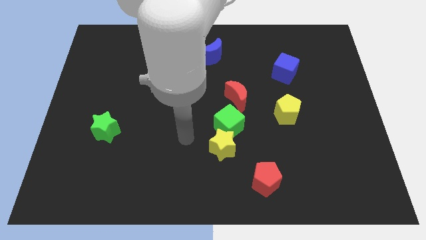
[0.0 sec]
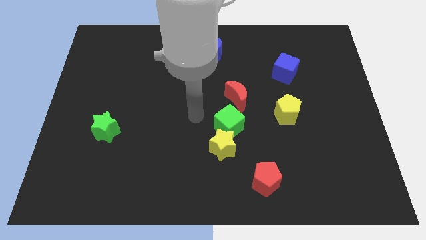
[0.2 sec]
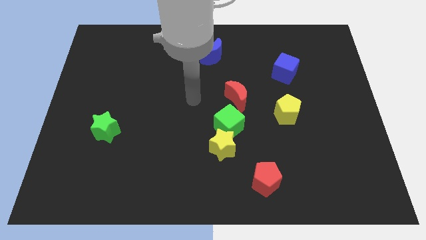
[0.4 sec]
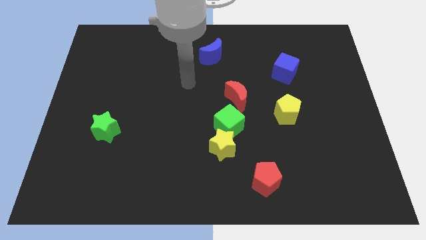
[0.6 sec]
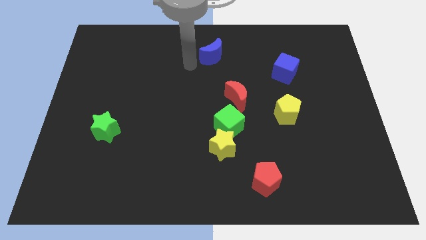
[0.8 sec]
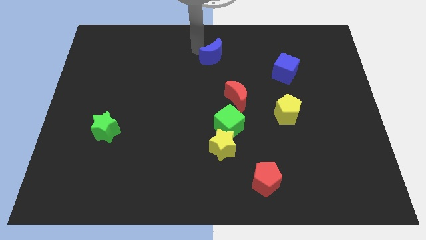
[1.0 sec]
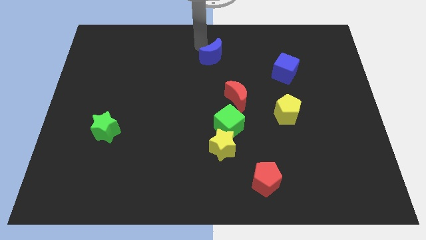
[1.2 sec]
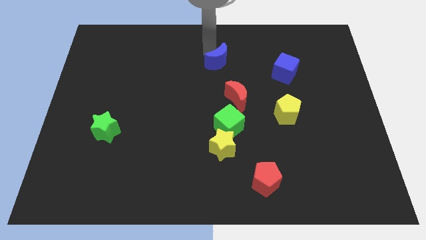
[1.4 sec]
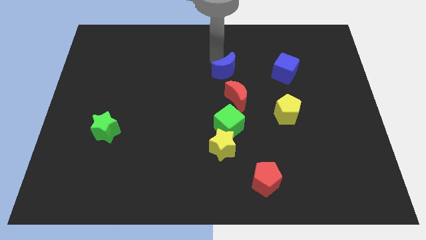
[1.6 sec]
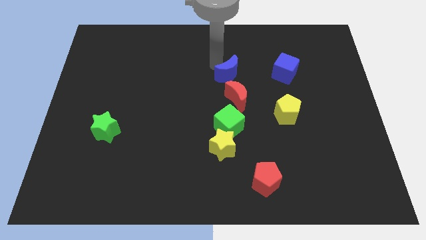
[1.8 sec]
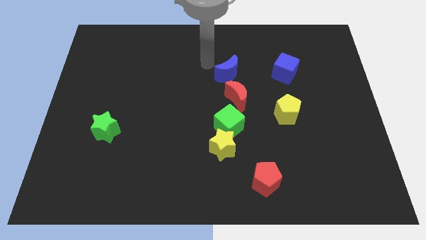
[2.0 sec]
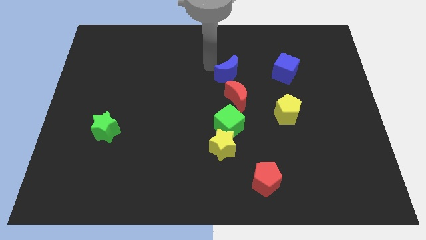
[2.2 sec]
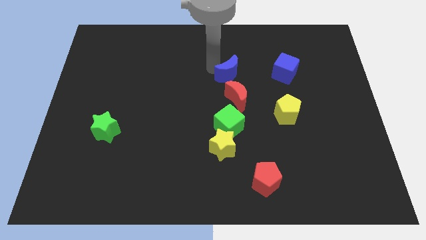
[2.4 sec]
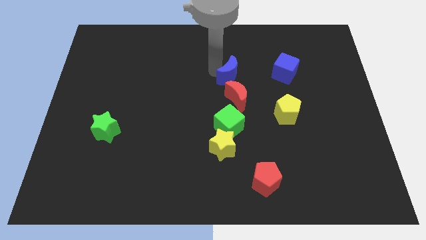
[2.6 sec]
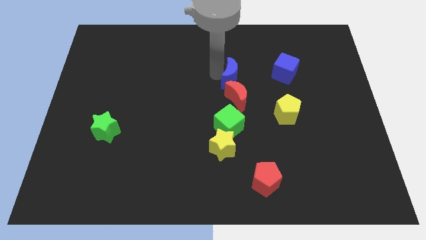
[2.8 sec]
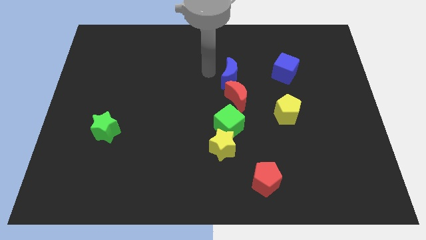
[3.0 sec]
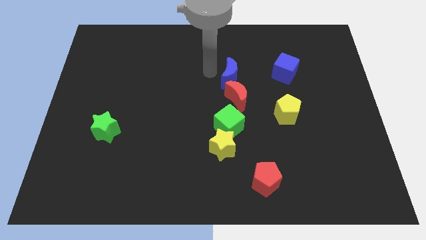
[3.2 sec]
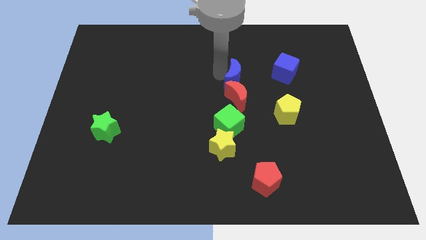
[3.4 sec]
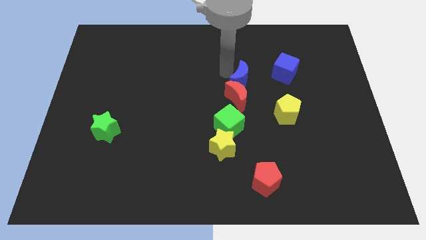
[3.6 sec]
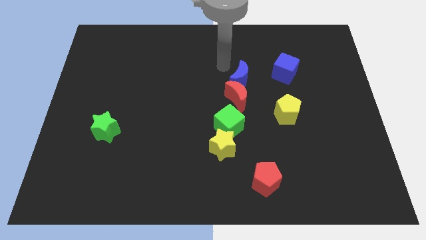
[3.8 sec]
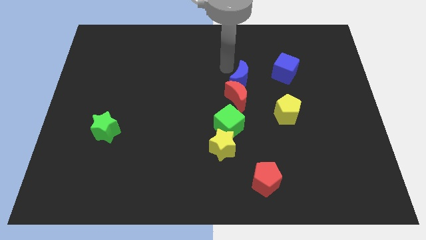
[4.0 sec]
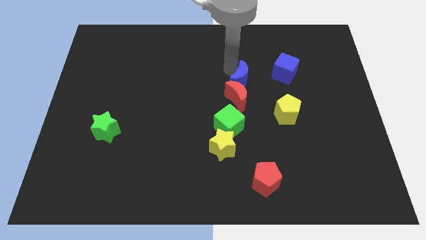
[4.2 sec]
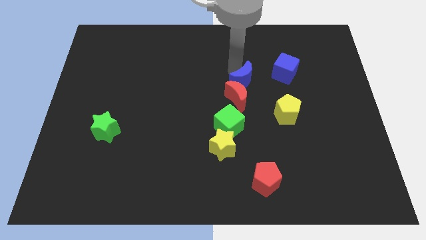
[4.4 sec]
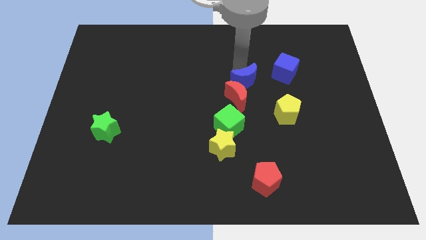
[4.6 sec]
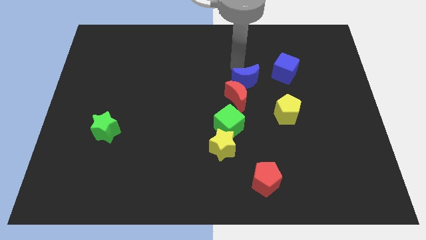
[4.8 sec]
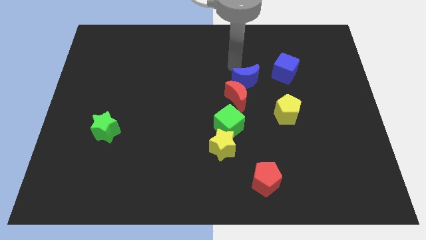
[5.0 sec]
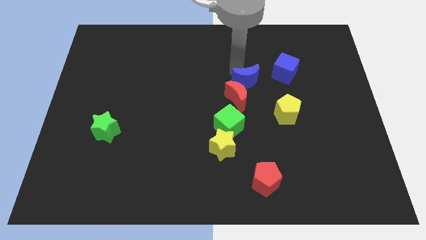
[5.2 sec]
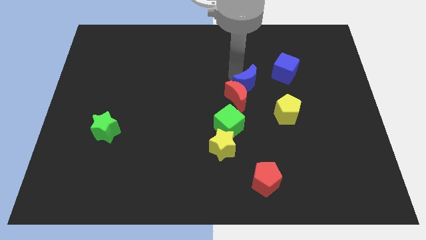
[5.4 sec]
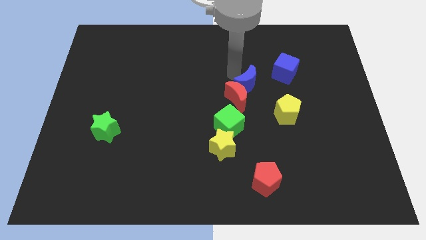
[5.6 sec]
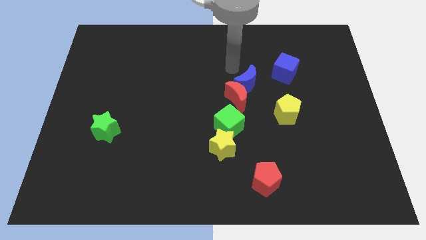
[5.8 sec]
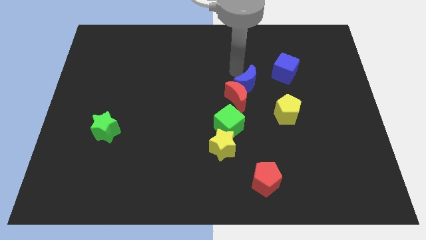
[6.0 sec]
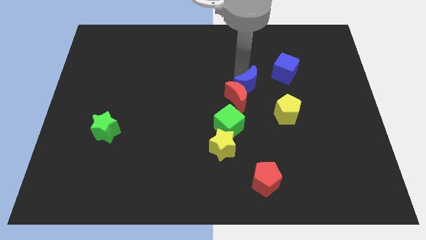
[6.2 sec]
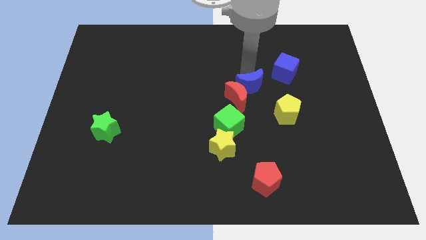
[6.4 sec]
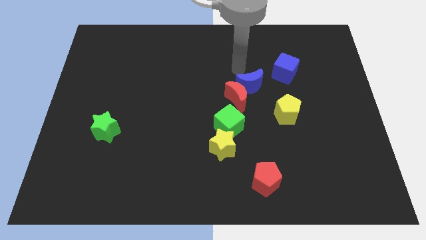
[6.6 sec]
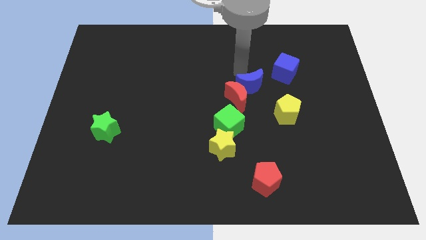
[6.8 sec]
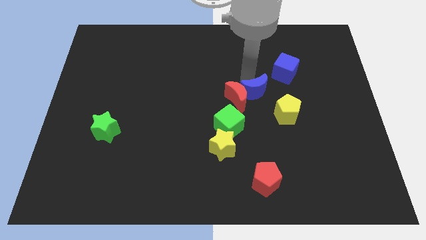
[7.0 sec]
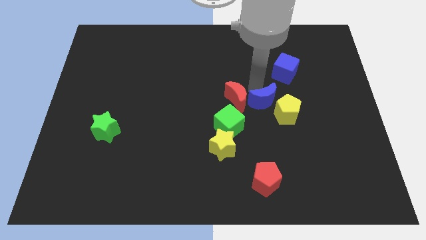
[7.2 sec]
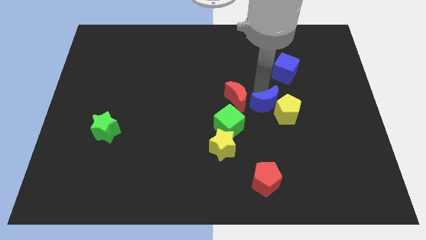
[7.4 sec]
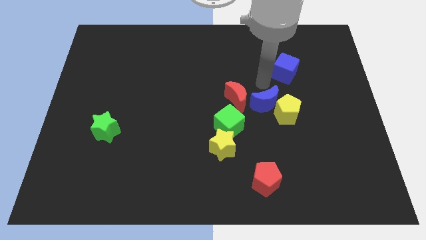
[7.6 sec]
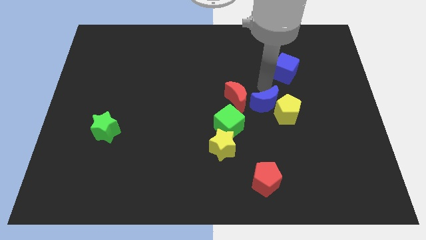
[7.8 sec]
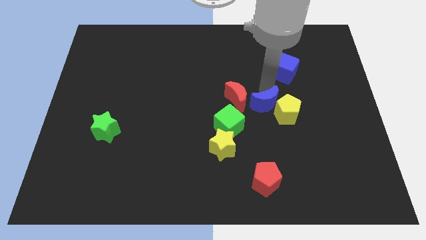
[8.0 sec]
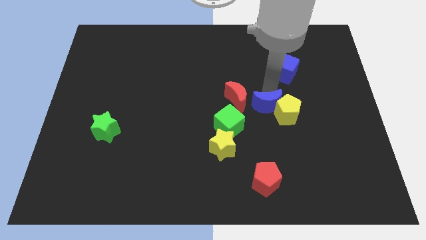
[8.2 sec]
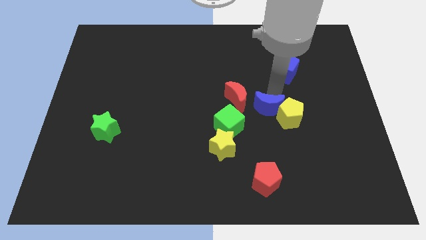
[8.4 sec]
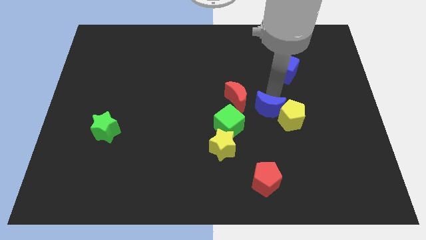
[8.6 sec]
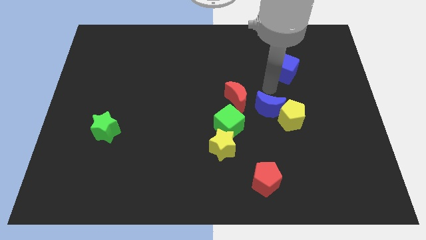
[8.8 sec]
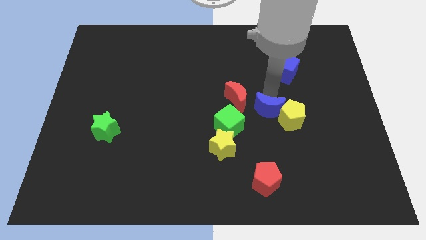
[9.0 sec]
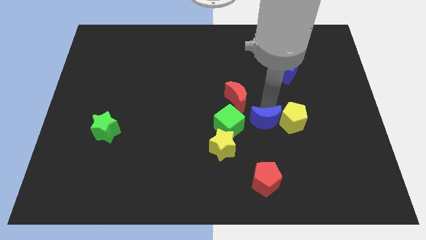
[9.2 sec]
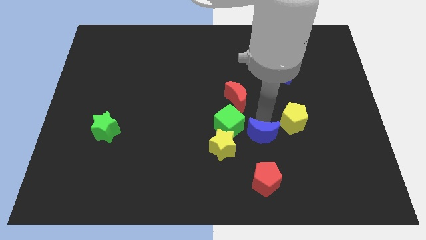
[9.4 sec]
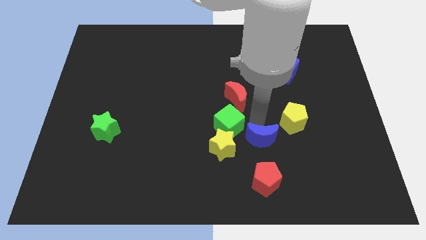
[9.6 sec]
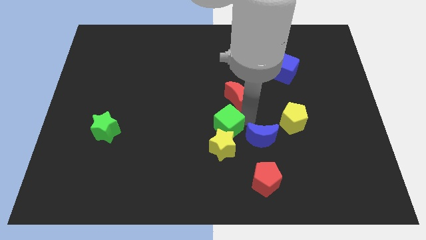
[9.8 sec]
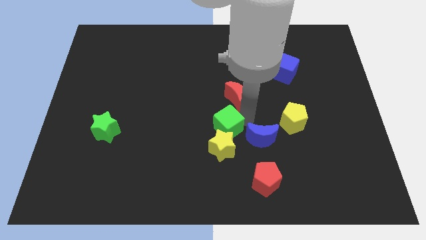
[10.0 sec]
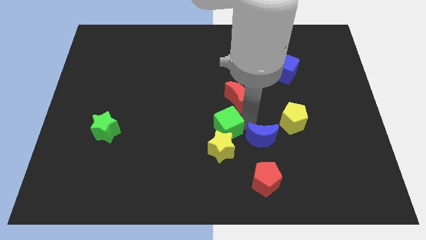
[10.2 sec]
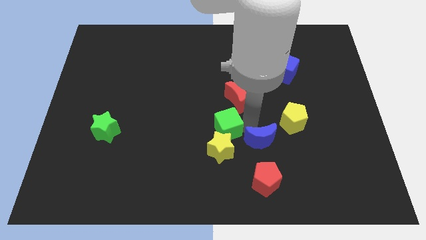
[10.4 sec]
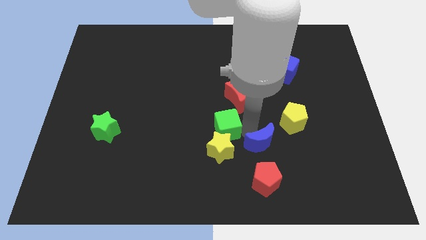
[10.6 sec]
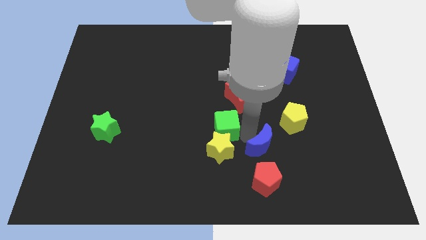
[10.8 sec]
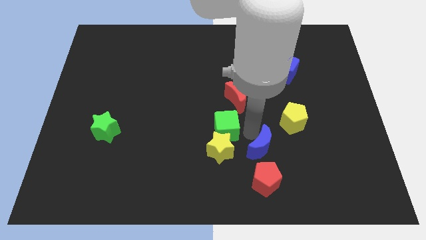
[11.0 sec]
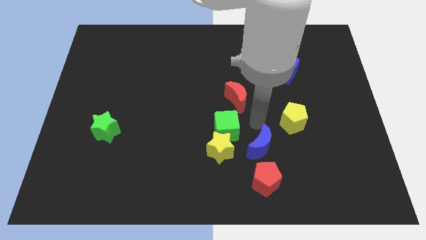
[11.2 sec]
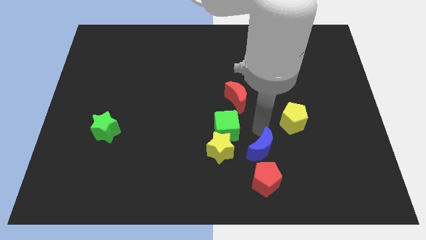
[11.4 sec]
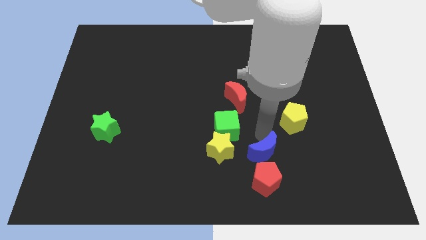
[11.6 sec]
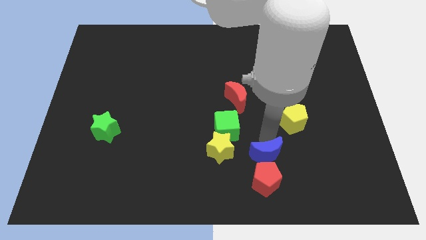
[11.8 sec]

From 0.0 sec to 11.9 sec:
slide the blue moon next to the red pentagon

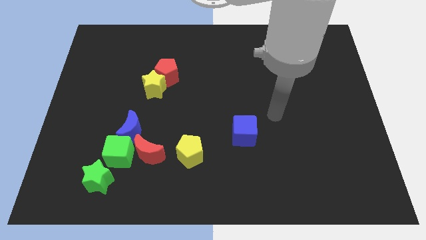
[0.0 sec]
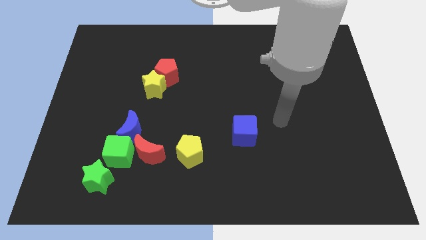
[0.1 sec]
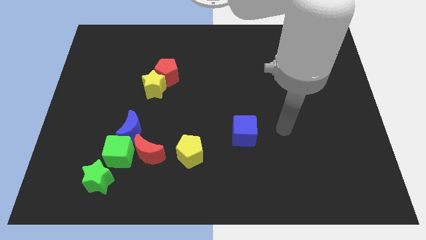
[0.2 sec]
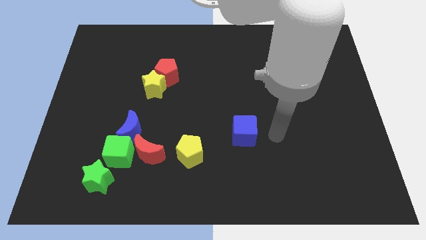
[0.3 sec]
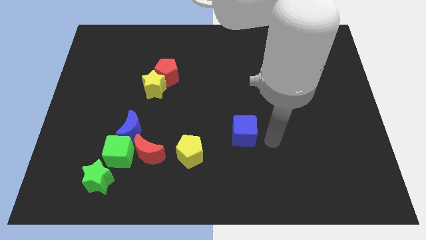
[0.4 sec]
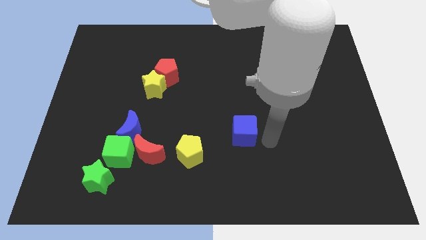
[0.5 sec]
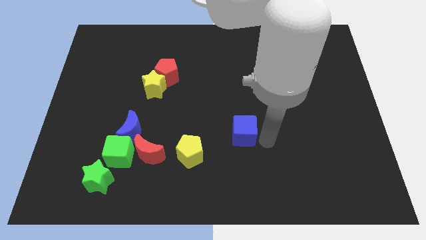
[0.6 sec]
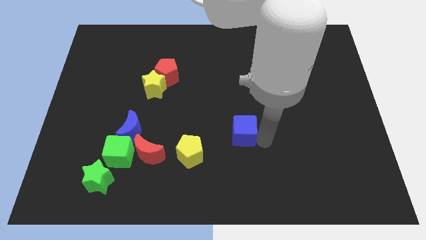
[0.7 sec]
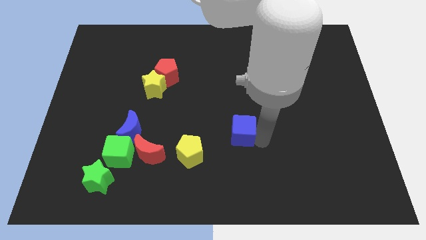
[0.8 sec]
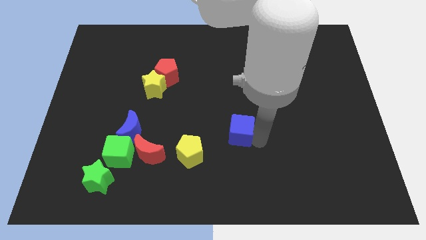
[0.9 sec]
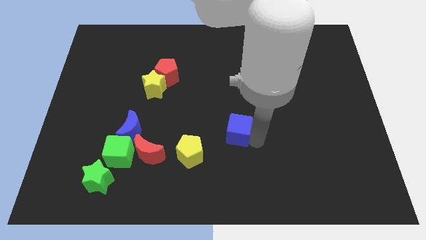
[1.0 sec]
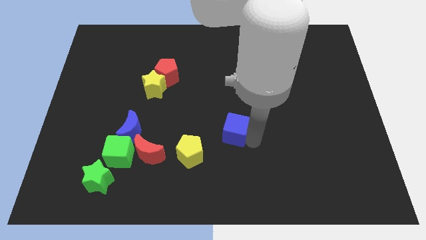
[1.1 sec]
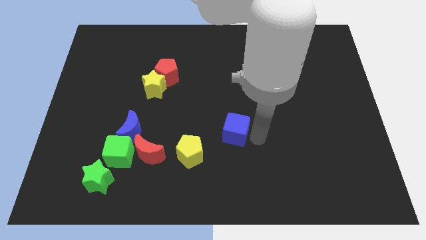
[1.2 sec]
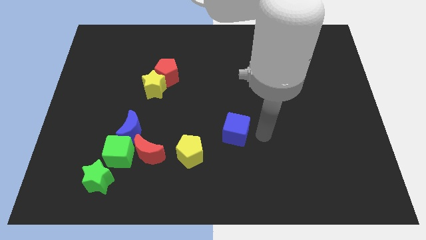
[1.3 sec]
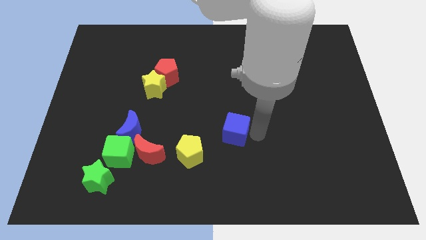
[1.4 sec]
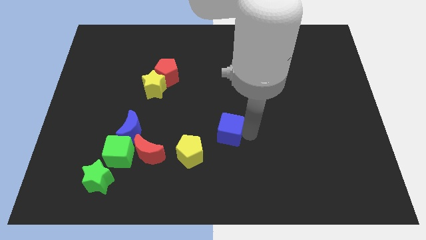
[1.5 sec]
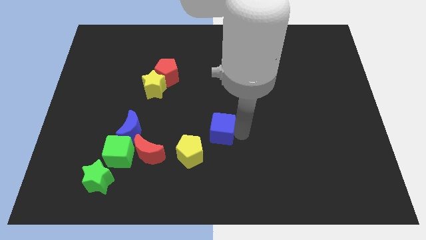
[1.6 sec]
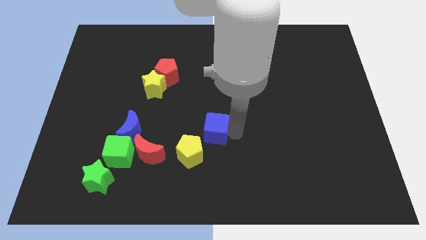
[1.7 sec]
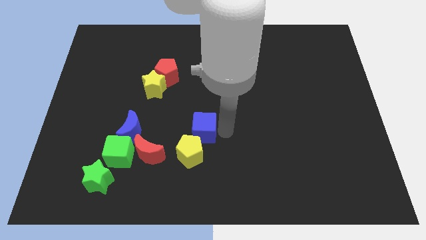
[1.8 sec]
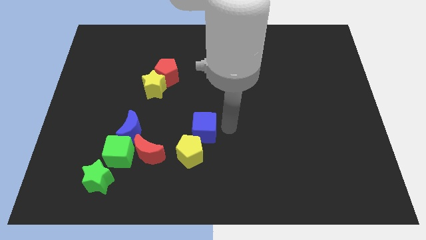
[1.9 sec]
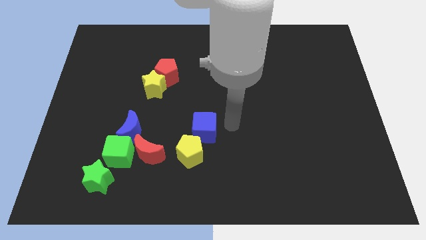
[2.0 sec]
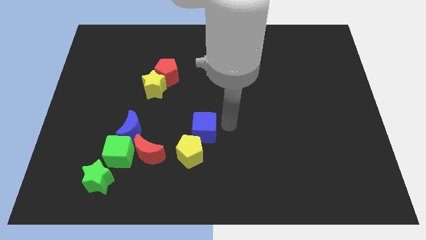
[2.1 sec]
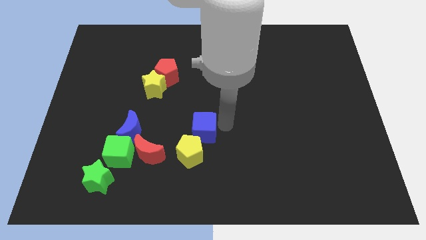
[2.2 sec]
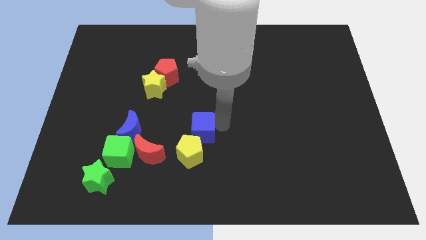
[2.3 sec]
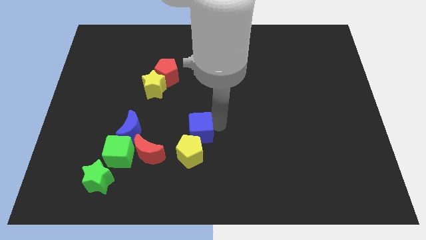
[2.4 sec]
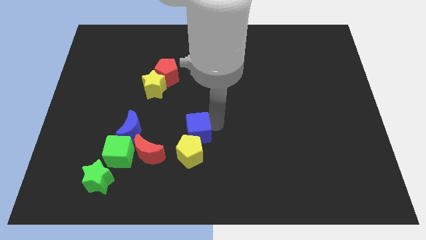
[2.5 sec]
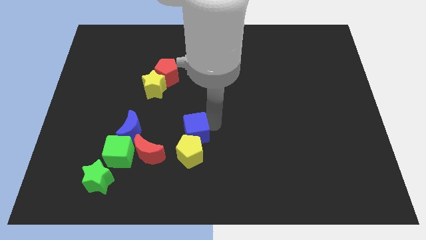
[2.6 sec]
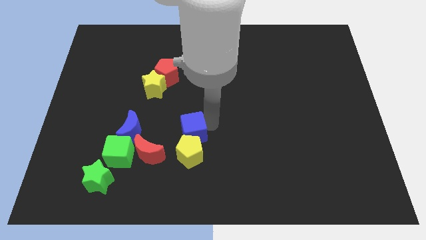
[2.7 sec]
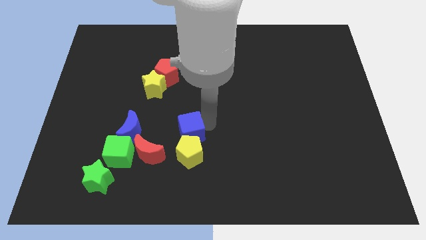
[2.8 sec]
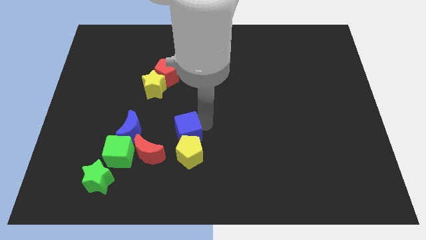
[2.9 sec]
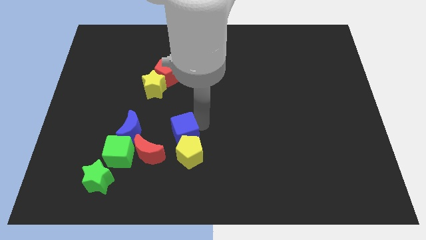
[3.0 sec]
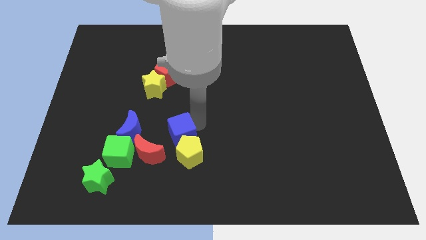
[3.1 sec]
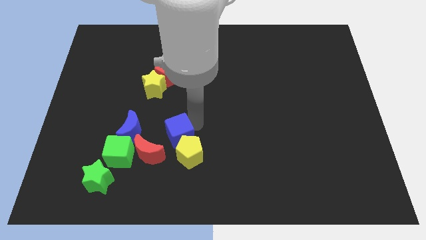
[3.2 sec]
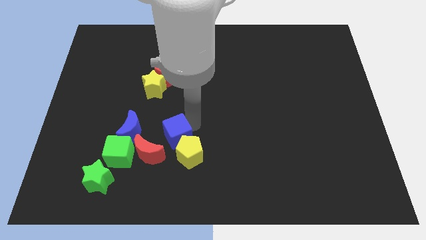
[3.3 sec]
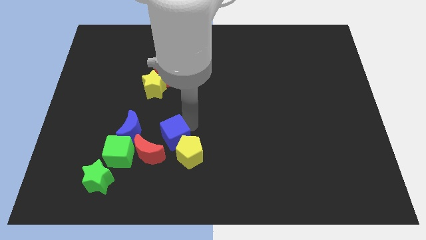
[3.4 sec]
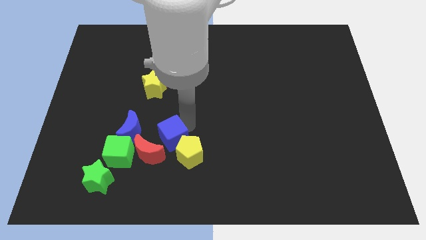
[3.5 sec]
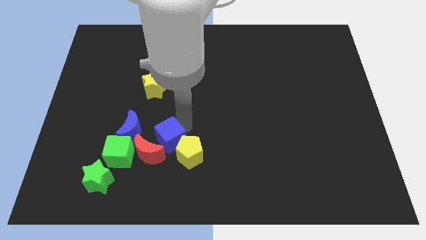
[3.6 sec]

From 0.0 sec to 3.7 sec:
put the blue cube towards the red moon
